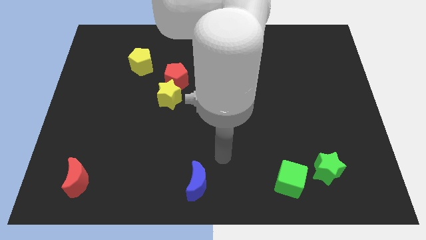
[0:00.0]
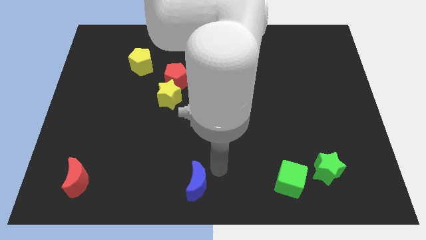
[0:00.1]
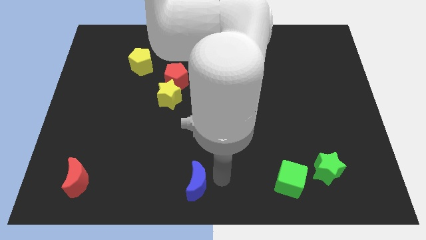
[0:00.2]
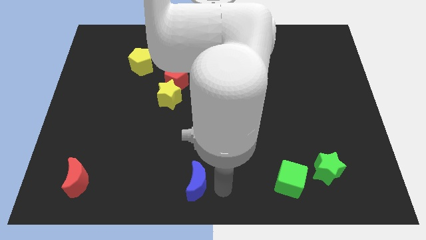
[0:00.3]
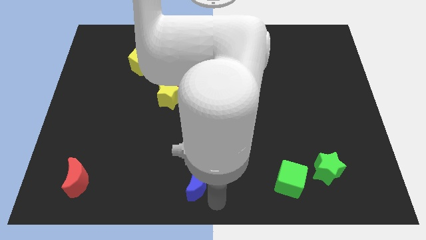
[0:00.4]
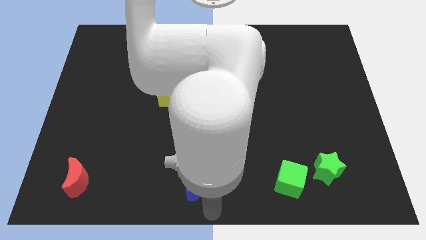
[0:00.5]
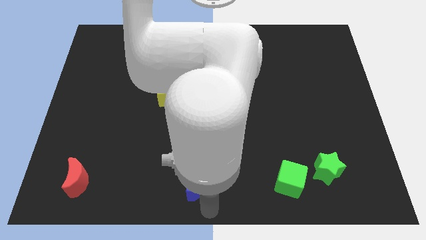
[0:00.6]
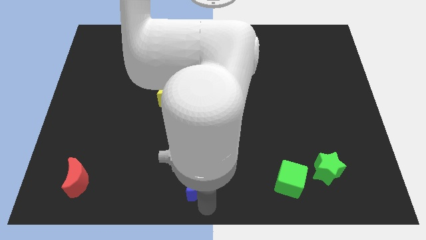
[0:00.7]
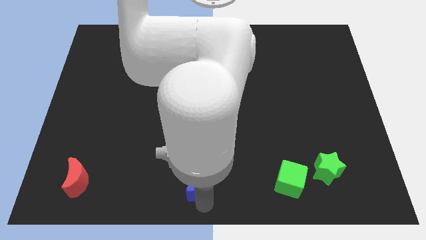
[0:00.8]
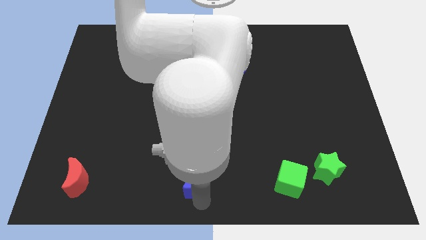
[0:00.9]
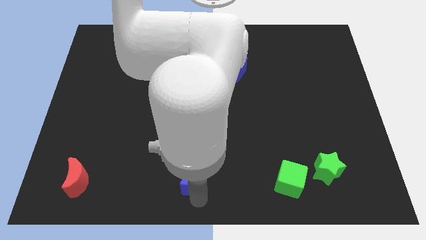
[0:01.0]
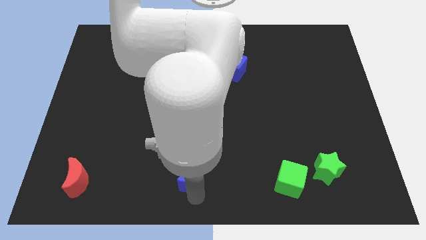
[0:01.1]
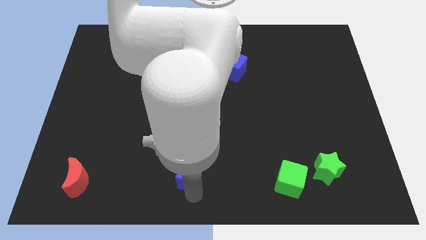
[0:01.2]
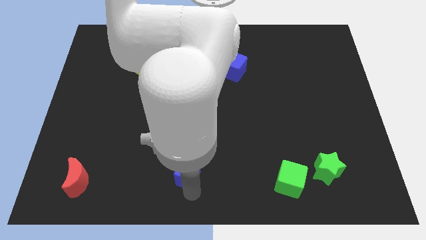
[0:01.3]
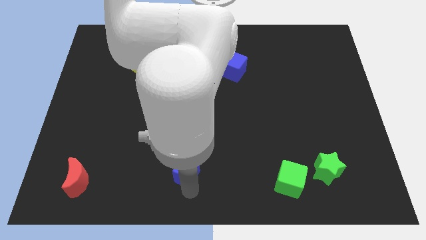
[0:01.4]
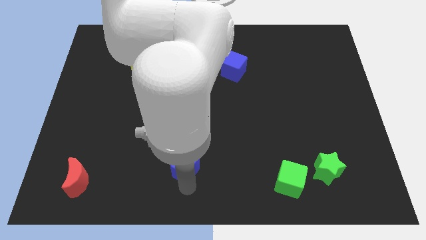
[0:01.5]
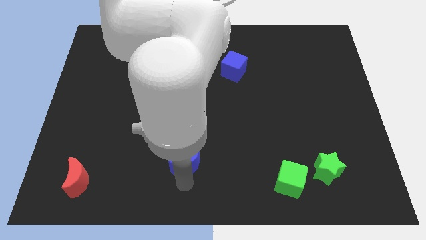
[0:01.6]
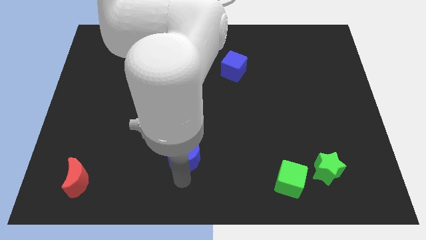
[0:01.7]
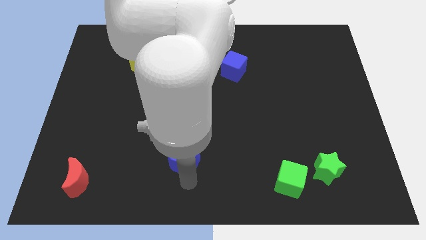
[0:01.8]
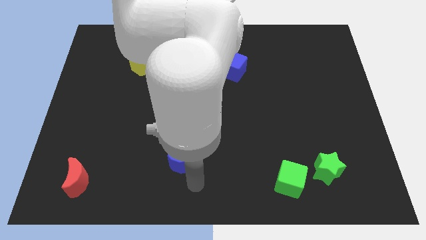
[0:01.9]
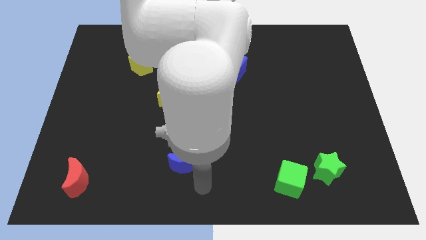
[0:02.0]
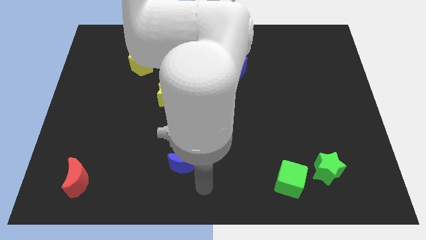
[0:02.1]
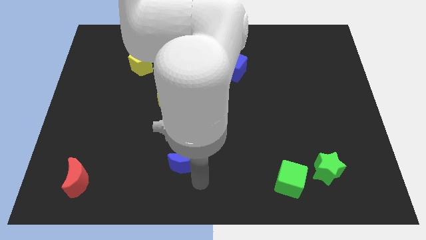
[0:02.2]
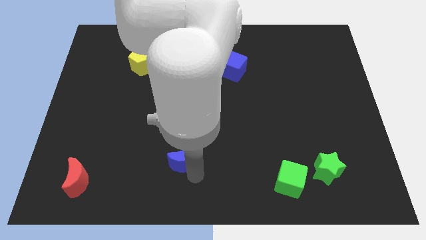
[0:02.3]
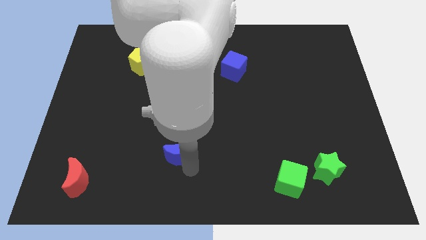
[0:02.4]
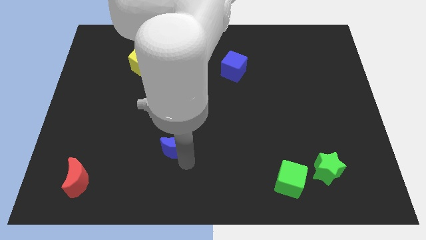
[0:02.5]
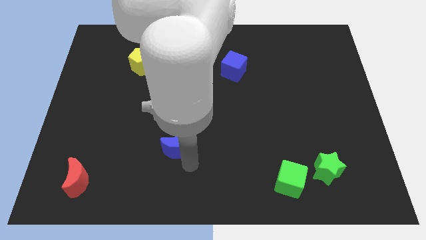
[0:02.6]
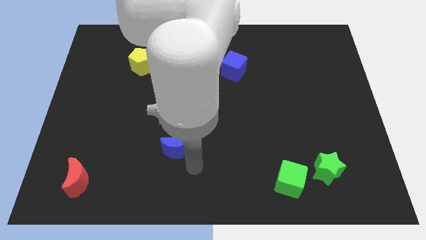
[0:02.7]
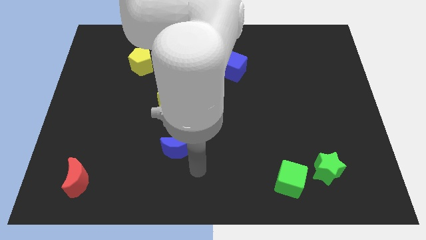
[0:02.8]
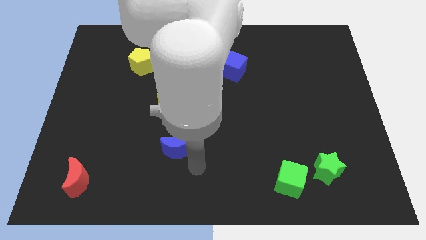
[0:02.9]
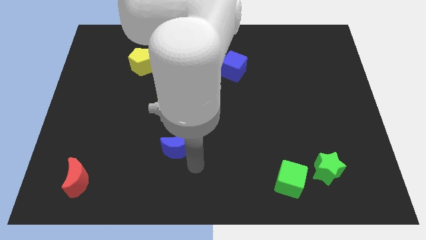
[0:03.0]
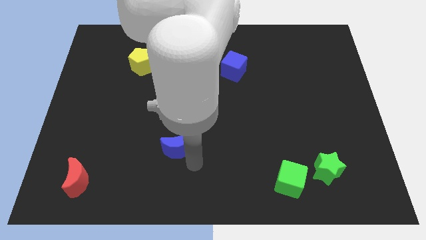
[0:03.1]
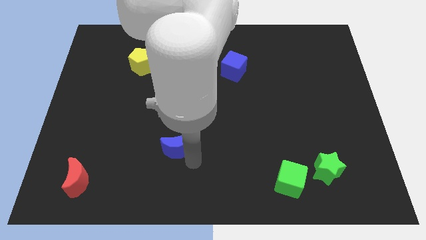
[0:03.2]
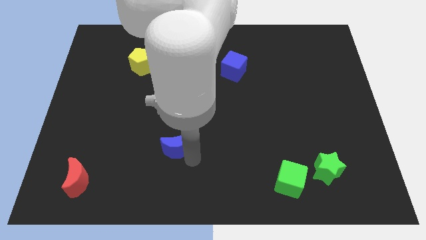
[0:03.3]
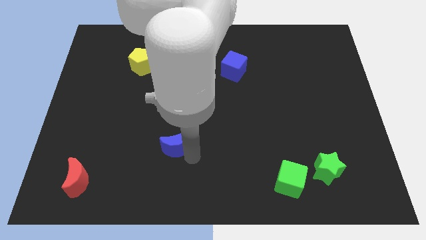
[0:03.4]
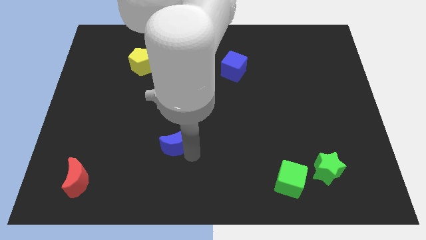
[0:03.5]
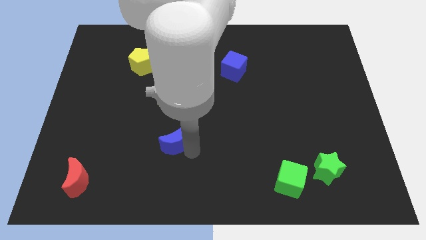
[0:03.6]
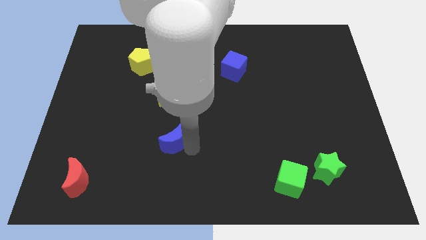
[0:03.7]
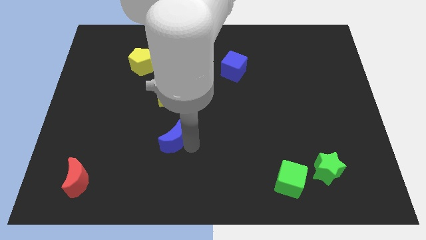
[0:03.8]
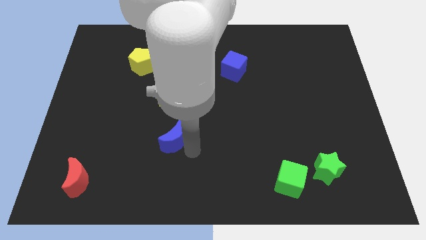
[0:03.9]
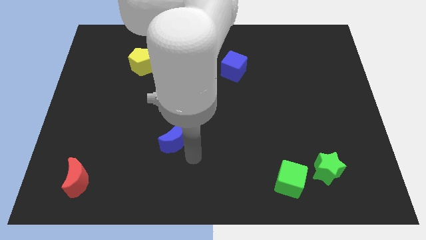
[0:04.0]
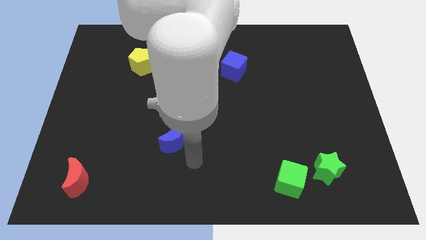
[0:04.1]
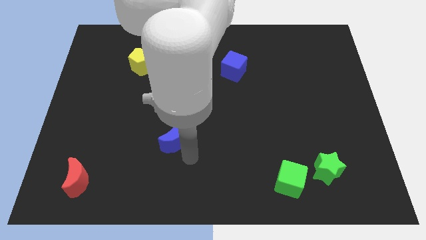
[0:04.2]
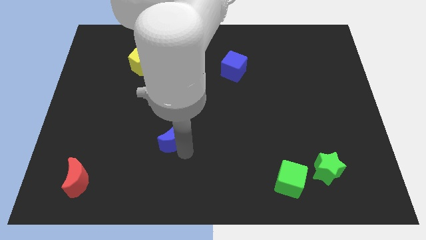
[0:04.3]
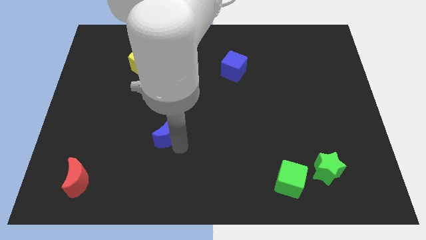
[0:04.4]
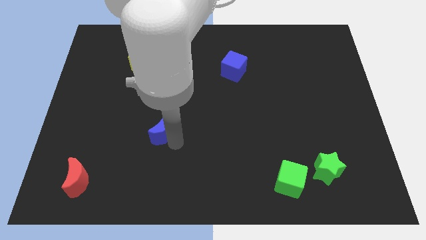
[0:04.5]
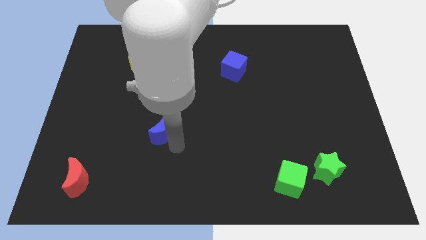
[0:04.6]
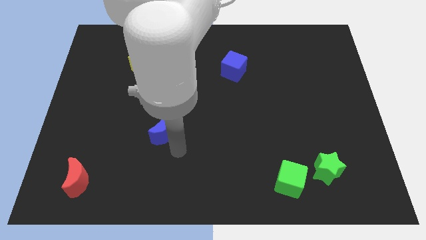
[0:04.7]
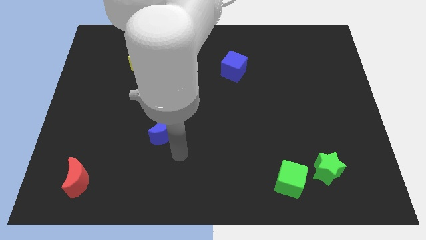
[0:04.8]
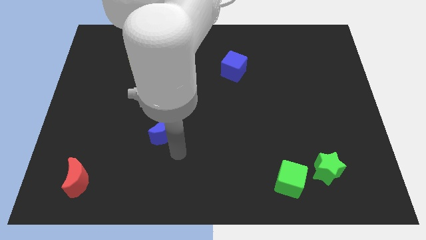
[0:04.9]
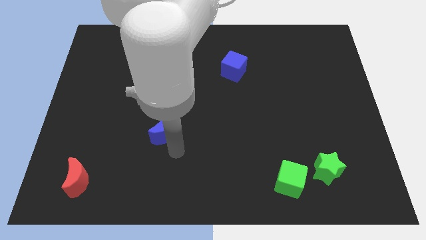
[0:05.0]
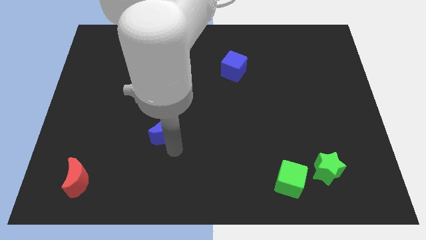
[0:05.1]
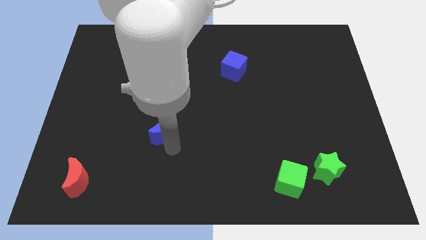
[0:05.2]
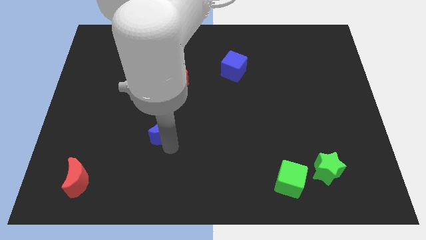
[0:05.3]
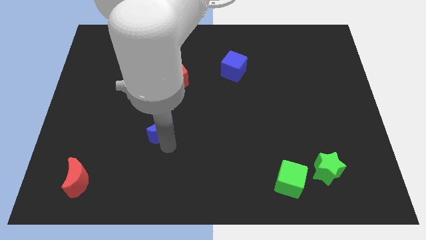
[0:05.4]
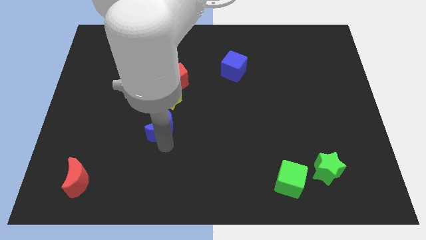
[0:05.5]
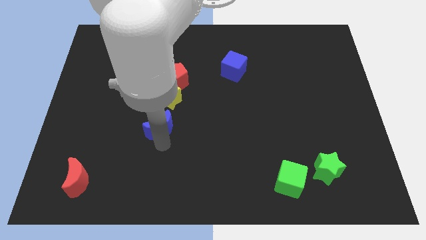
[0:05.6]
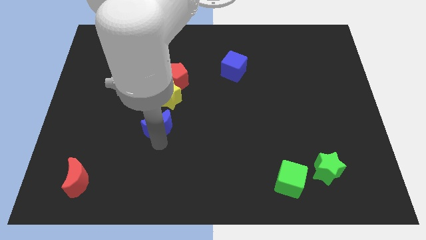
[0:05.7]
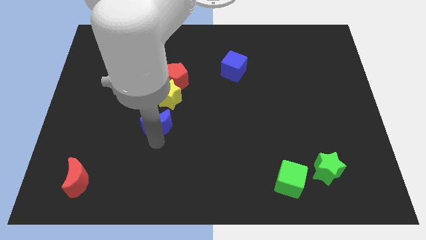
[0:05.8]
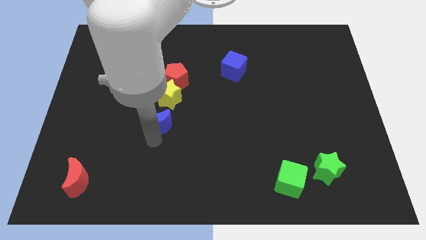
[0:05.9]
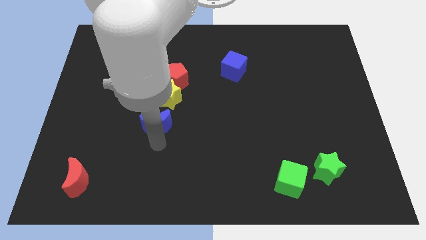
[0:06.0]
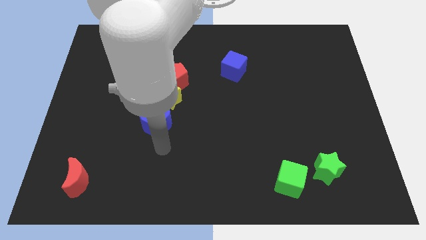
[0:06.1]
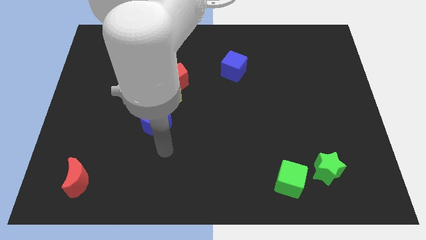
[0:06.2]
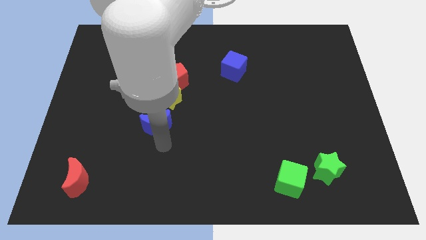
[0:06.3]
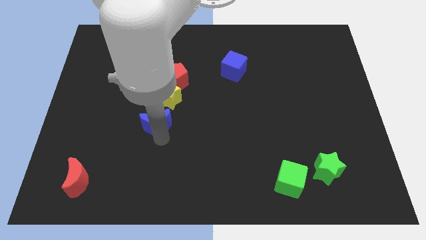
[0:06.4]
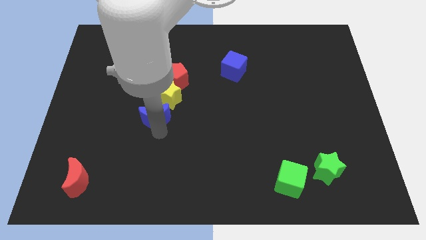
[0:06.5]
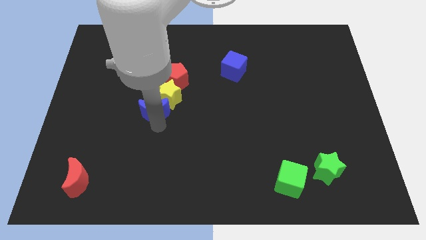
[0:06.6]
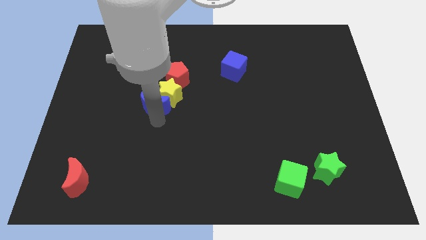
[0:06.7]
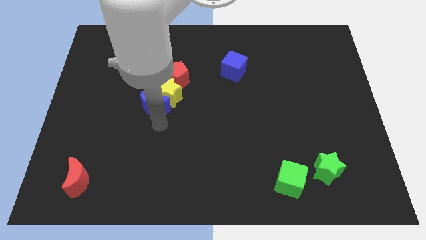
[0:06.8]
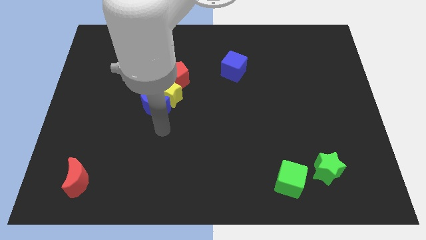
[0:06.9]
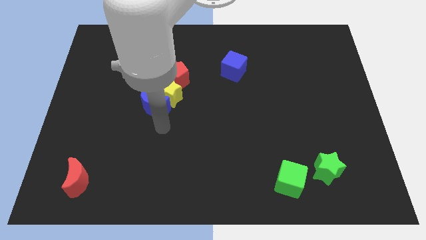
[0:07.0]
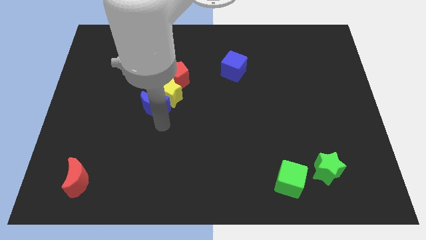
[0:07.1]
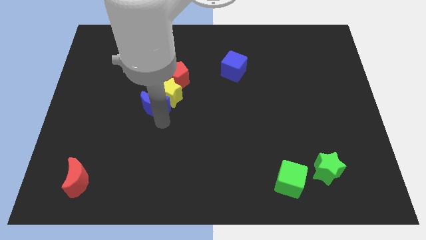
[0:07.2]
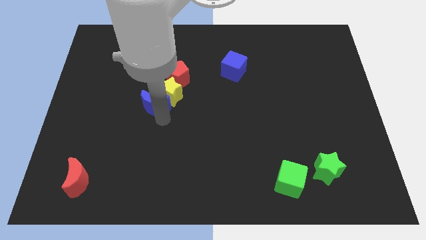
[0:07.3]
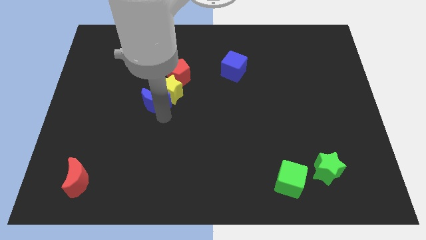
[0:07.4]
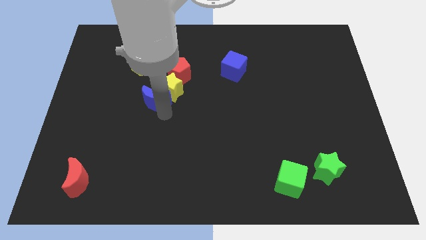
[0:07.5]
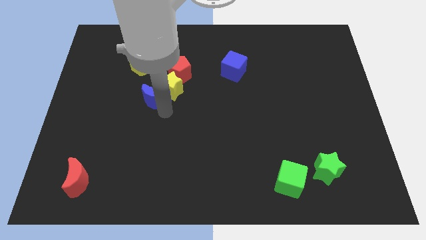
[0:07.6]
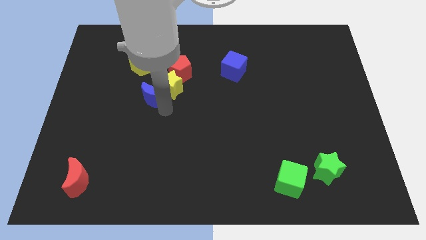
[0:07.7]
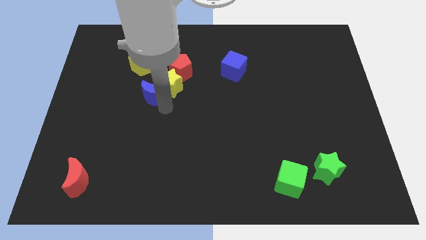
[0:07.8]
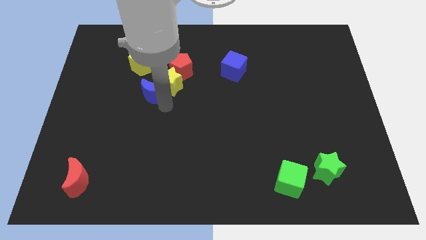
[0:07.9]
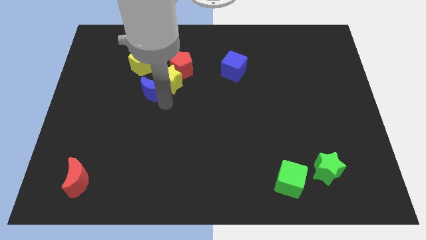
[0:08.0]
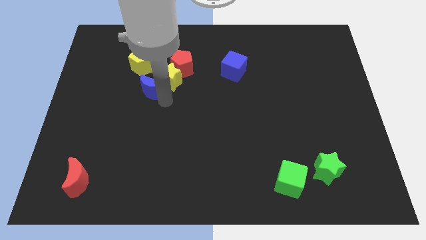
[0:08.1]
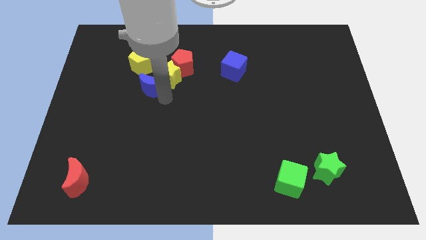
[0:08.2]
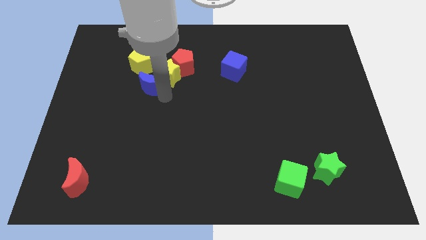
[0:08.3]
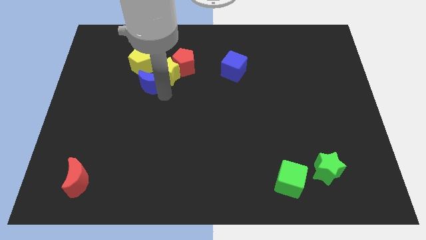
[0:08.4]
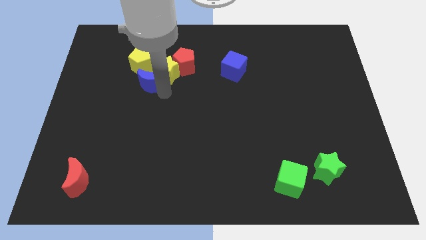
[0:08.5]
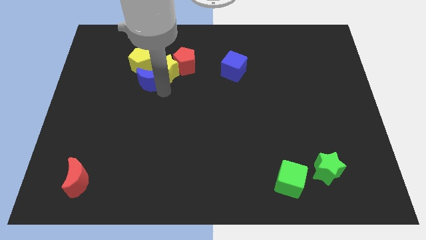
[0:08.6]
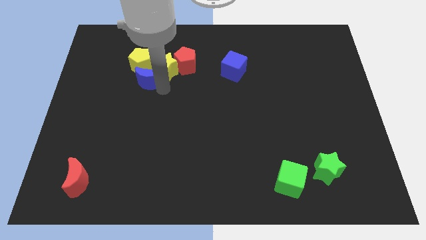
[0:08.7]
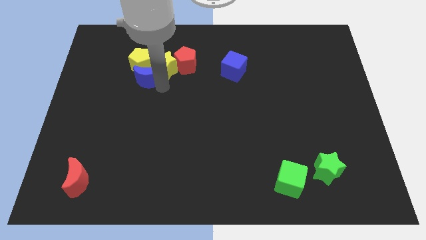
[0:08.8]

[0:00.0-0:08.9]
push the blue moon next to the yellow pentagon
